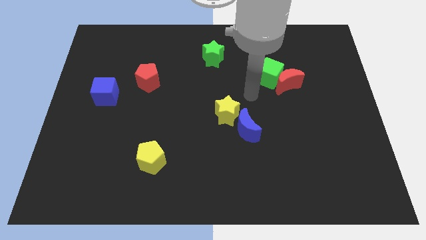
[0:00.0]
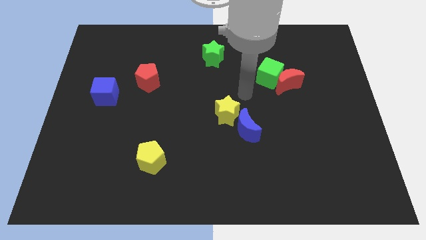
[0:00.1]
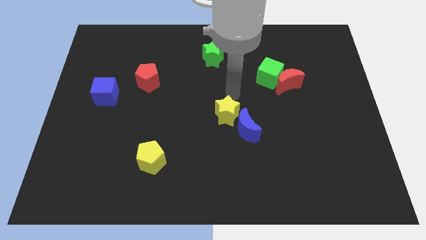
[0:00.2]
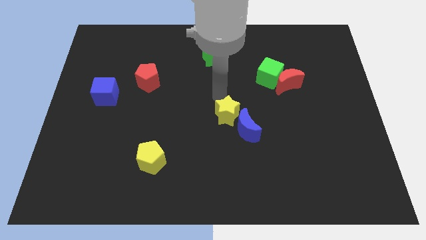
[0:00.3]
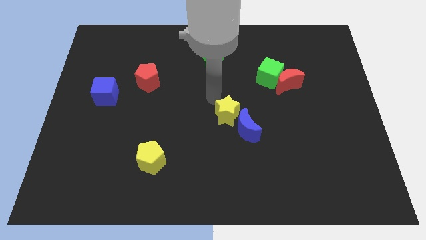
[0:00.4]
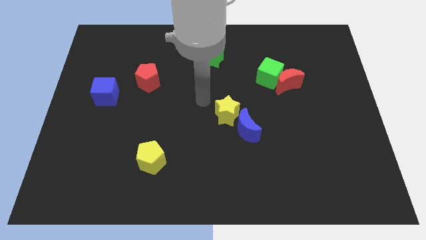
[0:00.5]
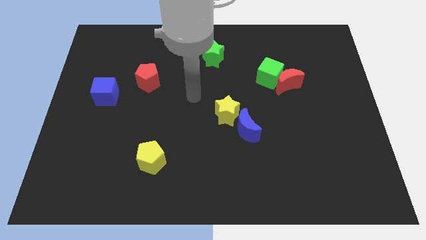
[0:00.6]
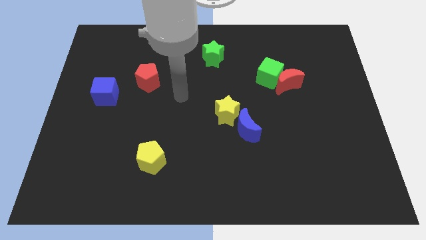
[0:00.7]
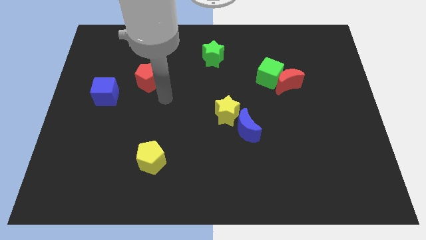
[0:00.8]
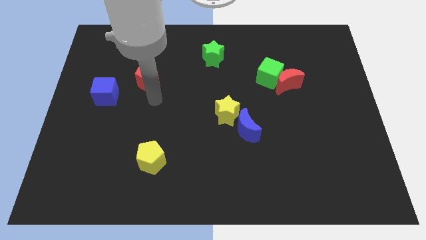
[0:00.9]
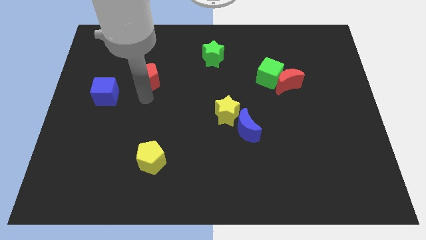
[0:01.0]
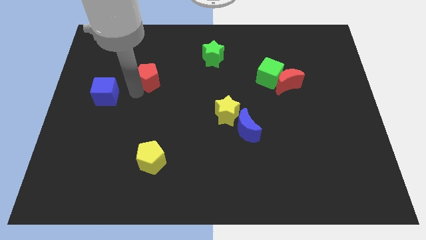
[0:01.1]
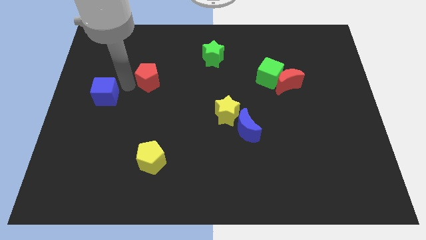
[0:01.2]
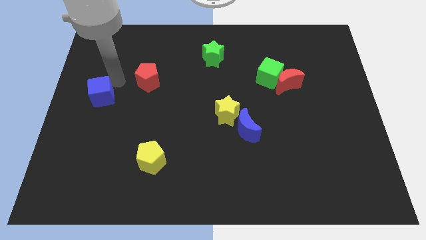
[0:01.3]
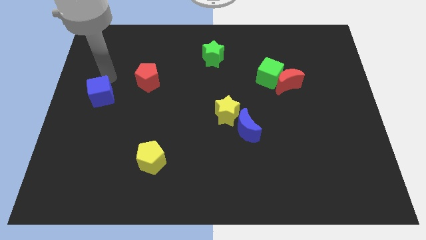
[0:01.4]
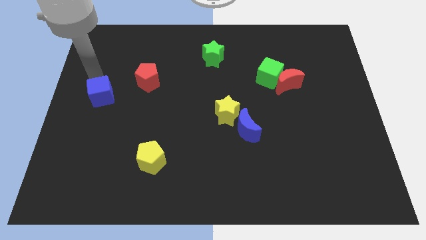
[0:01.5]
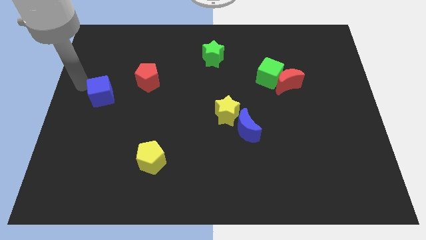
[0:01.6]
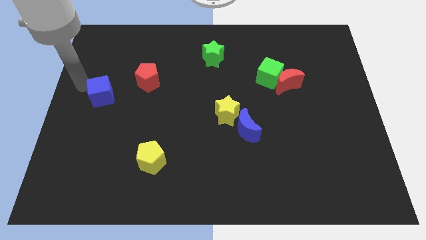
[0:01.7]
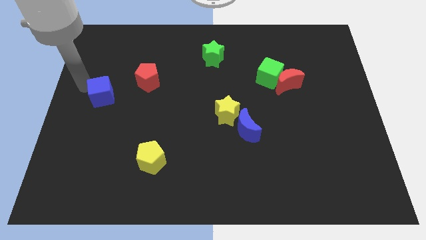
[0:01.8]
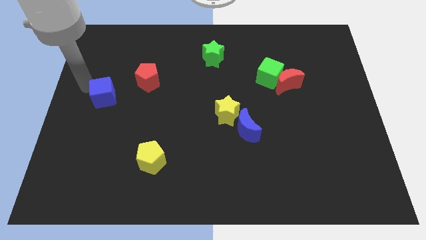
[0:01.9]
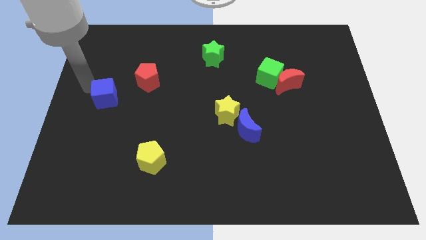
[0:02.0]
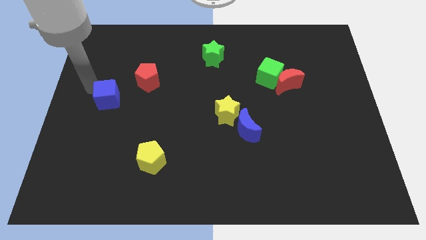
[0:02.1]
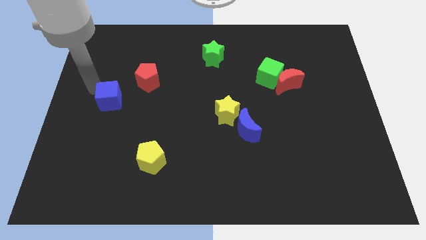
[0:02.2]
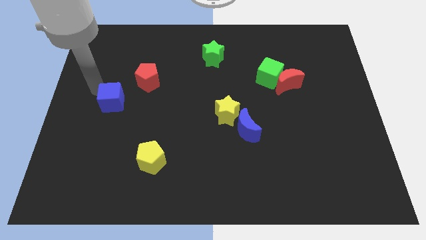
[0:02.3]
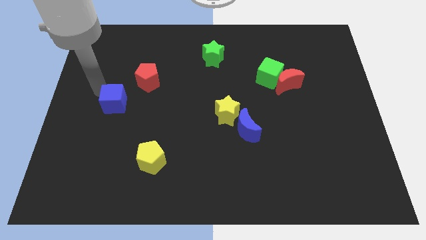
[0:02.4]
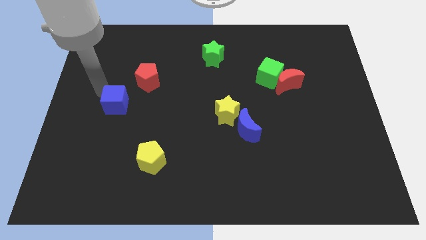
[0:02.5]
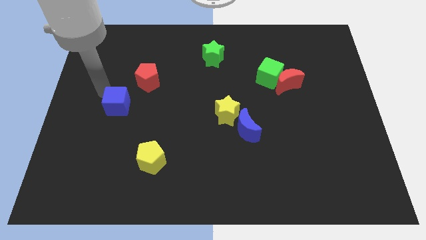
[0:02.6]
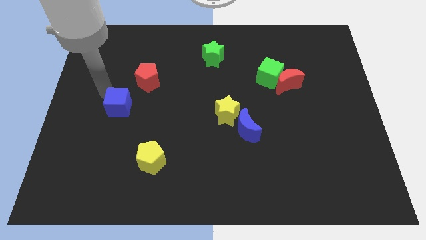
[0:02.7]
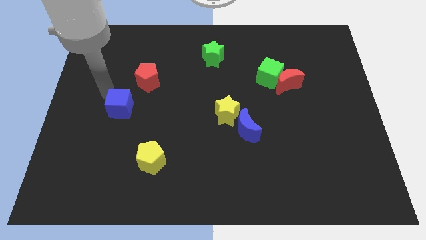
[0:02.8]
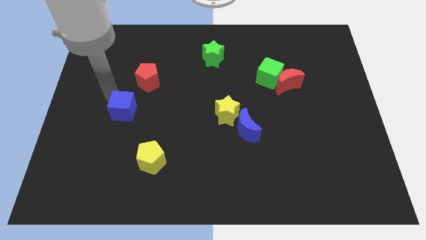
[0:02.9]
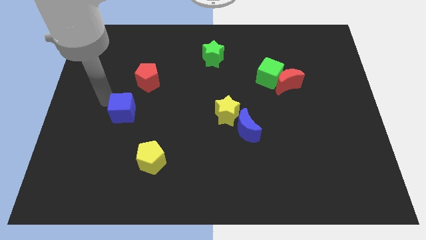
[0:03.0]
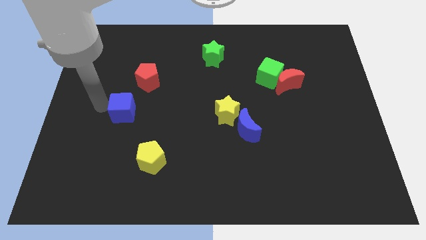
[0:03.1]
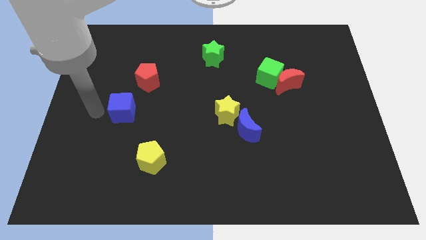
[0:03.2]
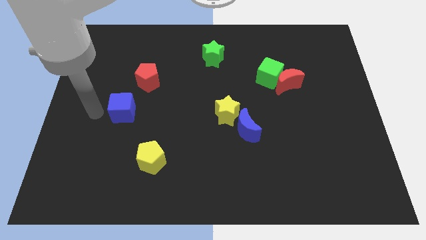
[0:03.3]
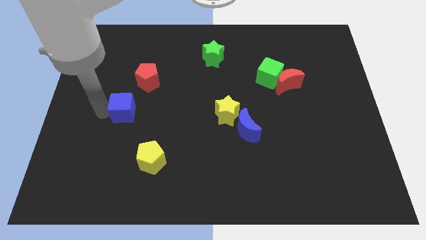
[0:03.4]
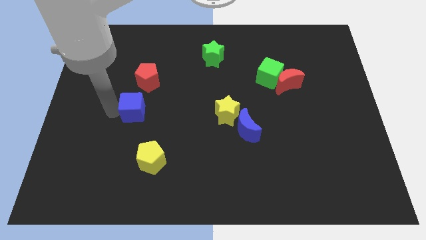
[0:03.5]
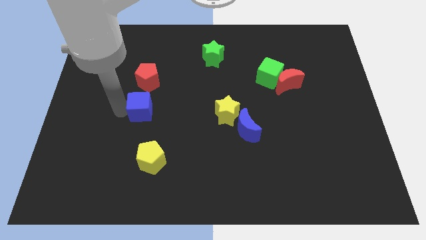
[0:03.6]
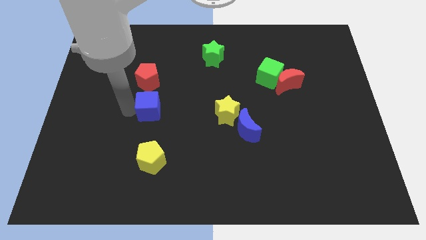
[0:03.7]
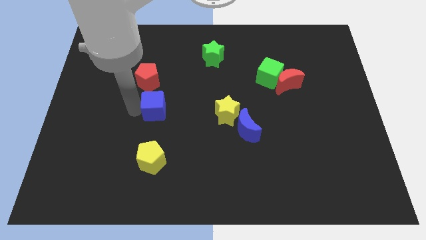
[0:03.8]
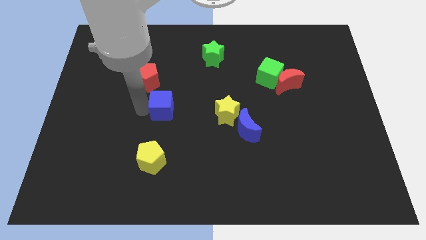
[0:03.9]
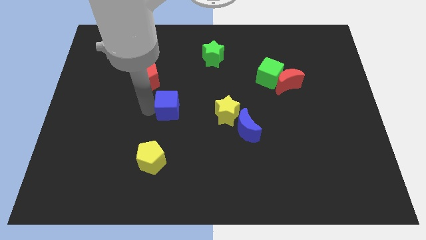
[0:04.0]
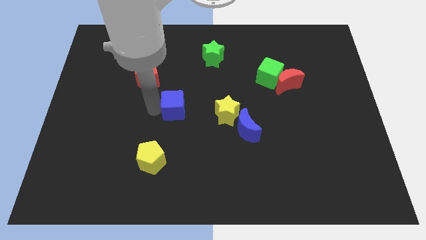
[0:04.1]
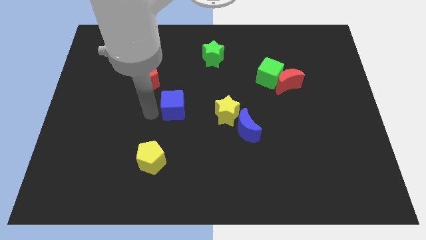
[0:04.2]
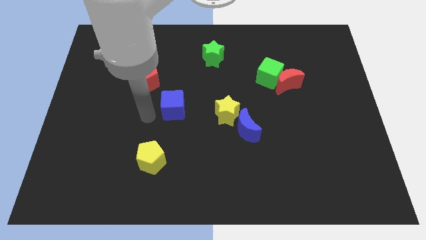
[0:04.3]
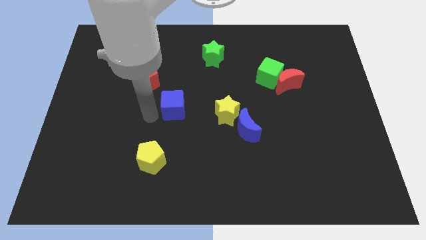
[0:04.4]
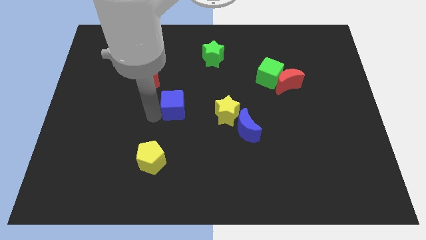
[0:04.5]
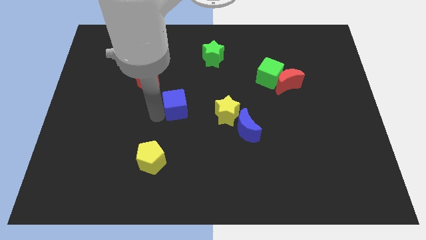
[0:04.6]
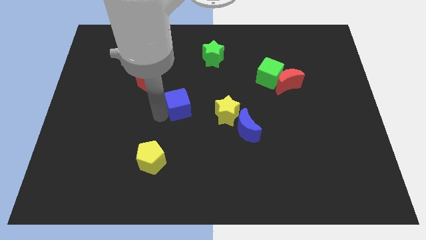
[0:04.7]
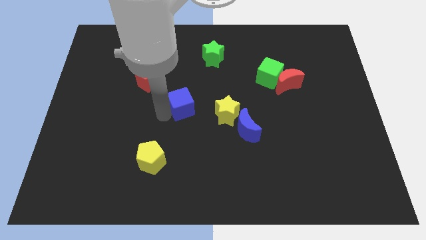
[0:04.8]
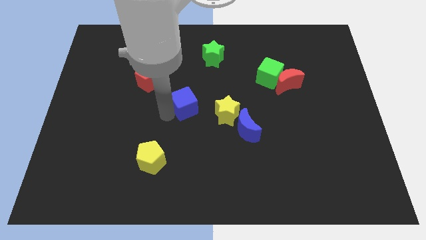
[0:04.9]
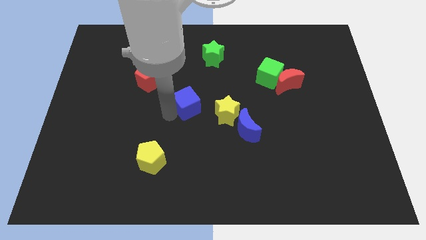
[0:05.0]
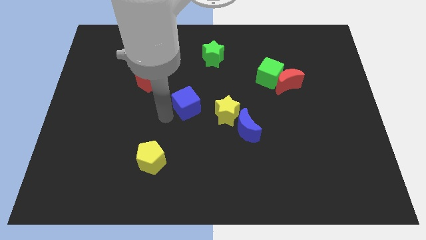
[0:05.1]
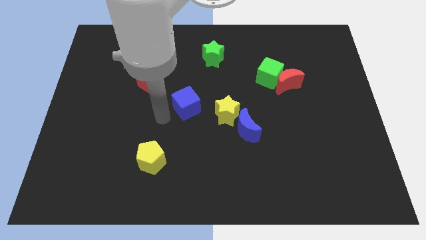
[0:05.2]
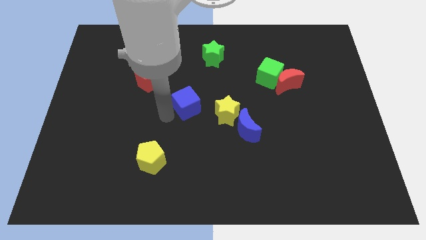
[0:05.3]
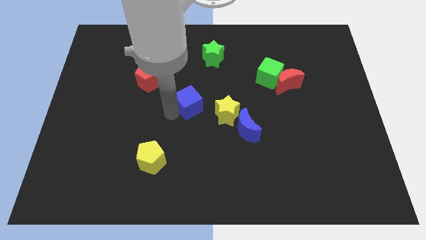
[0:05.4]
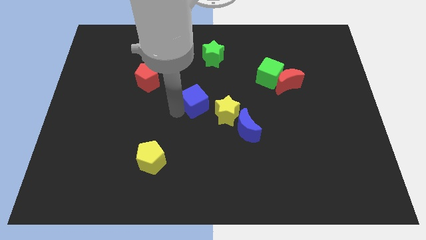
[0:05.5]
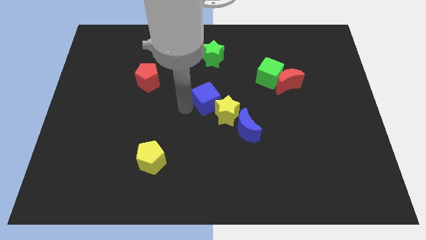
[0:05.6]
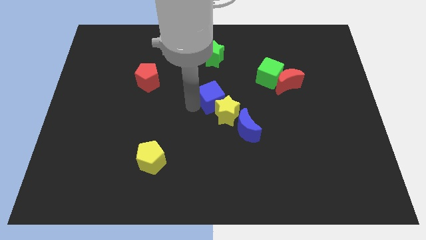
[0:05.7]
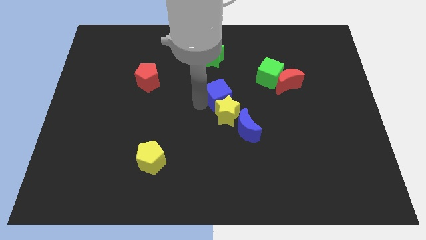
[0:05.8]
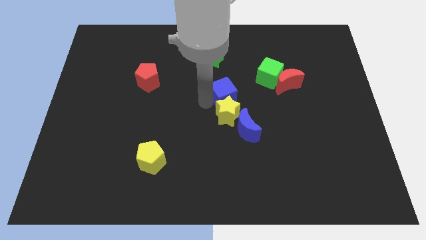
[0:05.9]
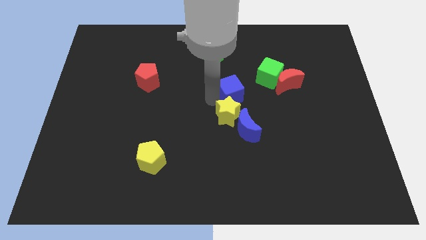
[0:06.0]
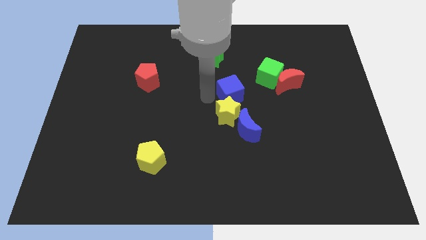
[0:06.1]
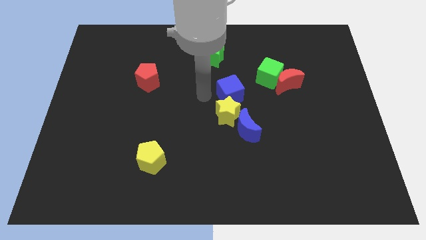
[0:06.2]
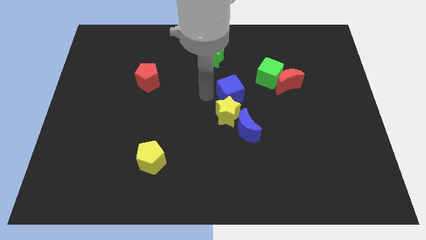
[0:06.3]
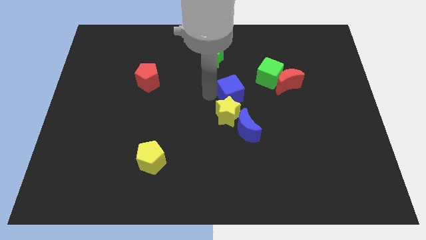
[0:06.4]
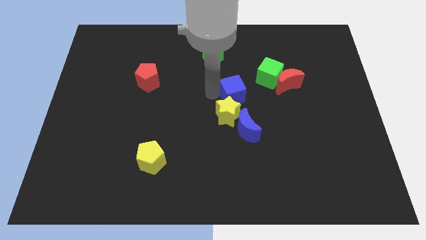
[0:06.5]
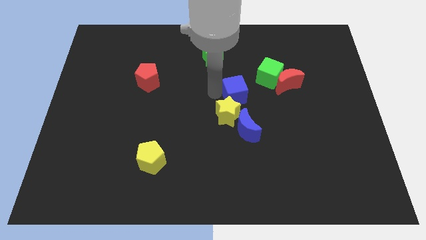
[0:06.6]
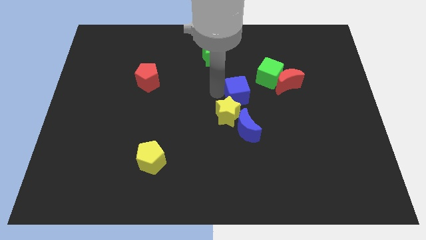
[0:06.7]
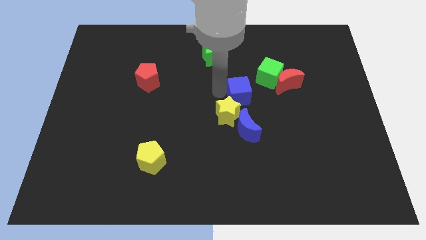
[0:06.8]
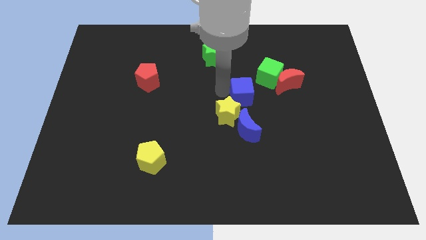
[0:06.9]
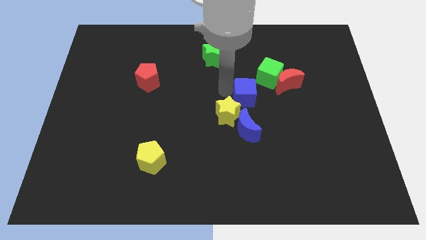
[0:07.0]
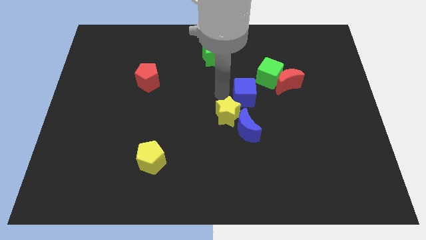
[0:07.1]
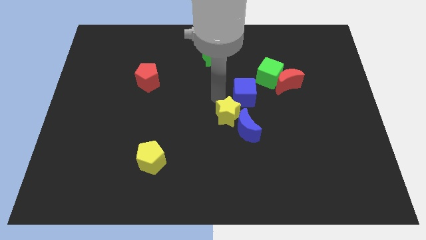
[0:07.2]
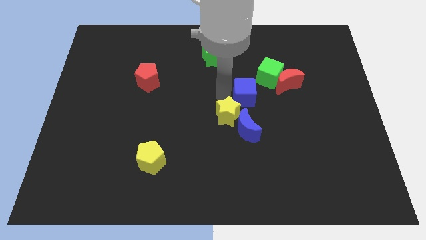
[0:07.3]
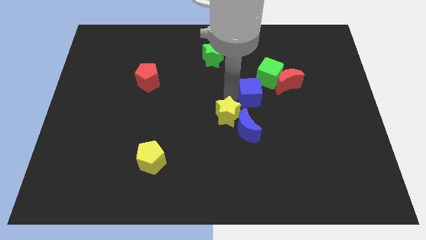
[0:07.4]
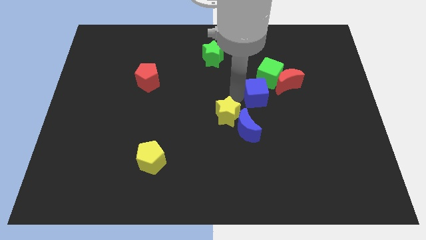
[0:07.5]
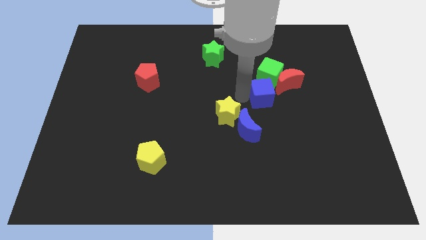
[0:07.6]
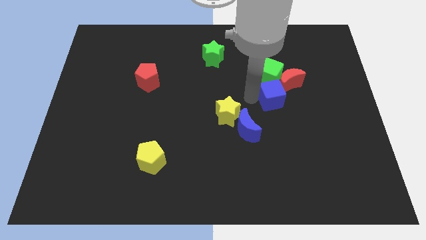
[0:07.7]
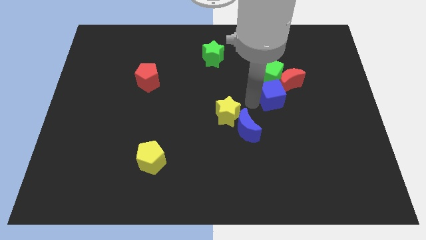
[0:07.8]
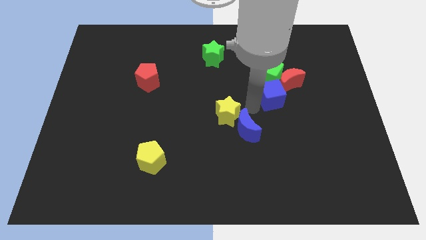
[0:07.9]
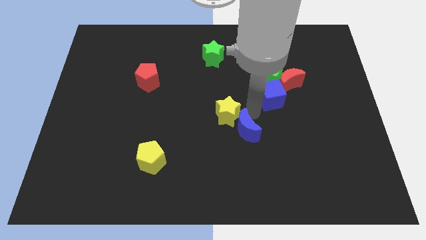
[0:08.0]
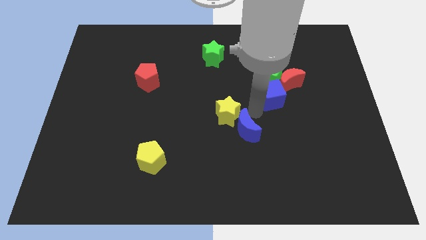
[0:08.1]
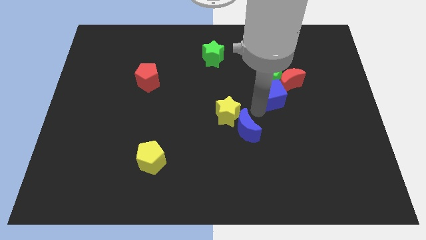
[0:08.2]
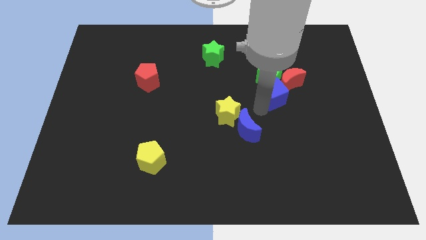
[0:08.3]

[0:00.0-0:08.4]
slide the blue cube towards the red moon
